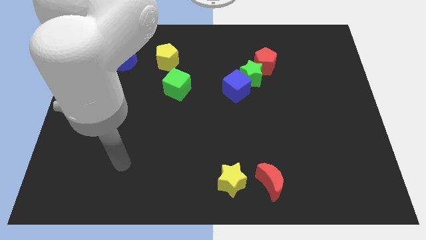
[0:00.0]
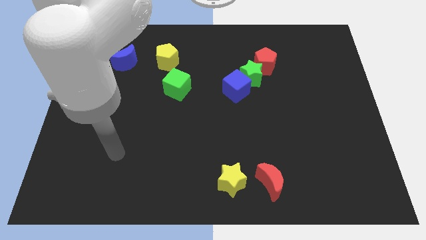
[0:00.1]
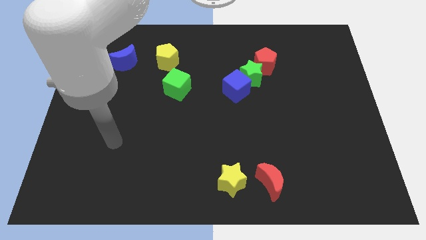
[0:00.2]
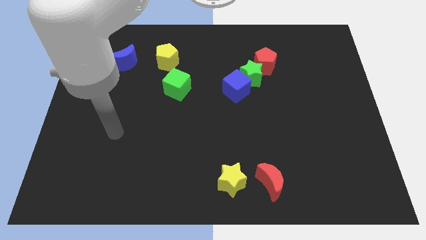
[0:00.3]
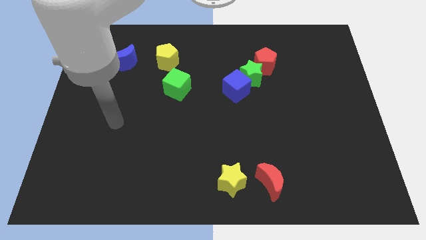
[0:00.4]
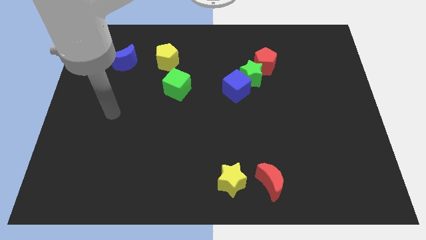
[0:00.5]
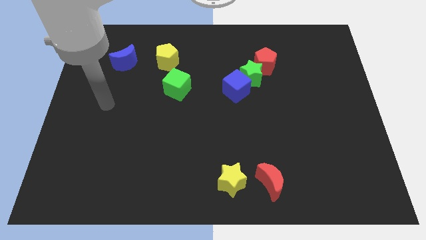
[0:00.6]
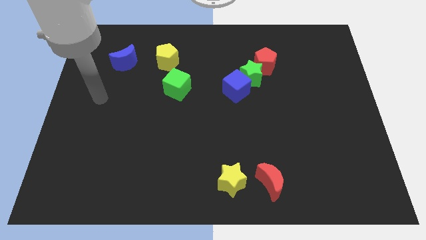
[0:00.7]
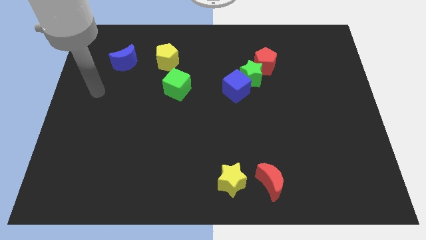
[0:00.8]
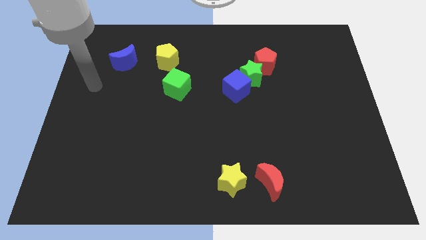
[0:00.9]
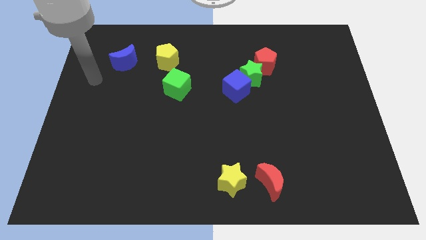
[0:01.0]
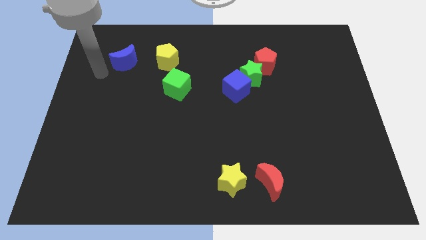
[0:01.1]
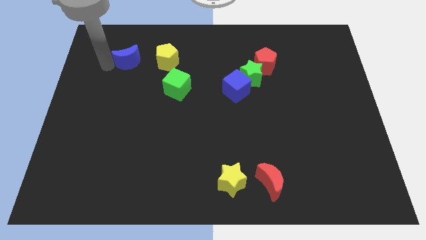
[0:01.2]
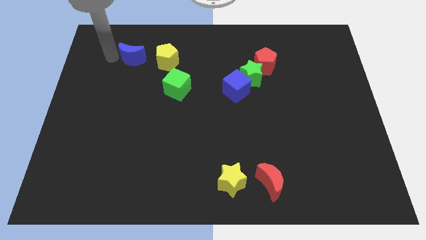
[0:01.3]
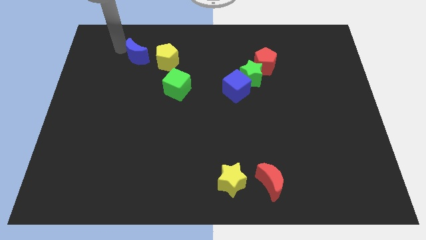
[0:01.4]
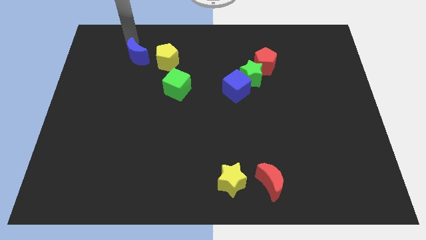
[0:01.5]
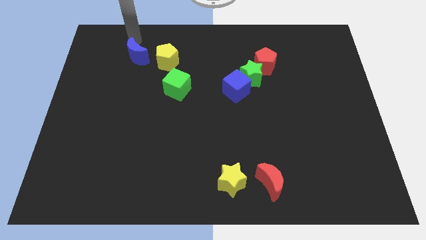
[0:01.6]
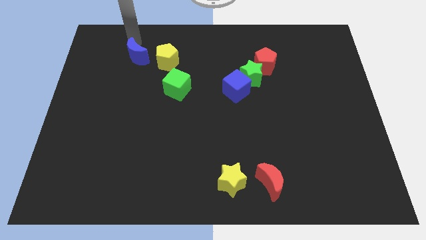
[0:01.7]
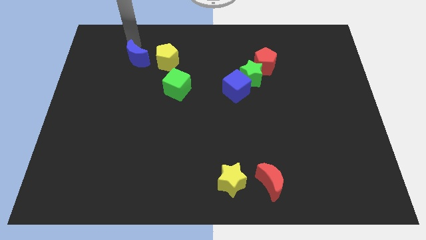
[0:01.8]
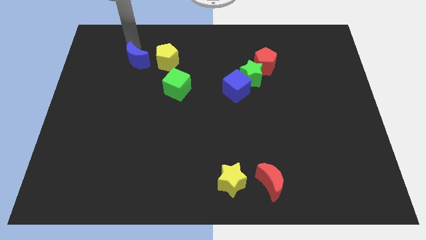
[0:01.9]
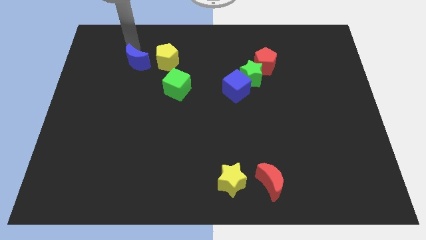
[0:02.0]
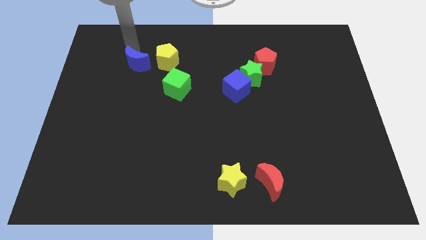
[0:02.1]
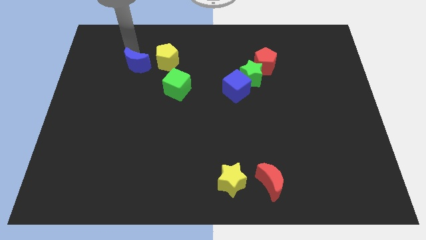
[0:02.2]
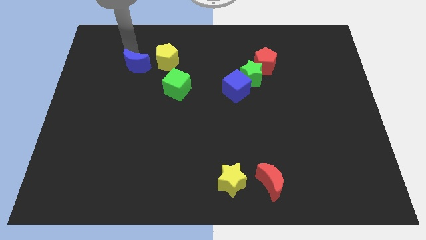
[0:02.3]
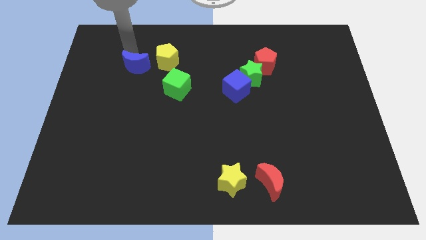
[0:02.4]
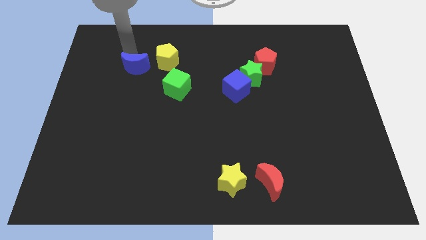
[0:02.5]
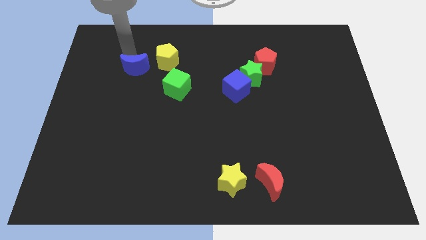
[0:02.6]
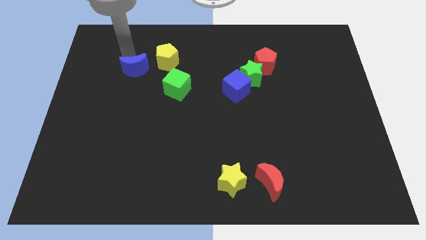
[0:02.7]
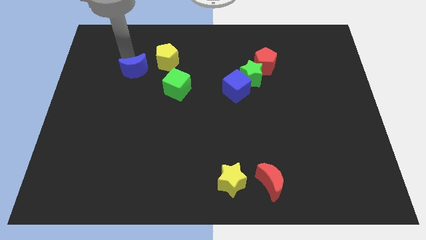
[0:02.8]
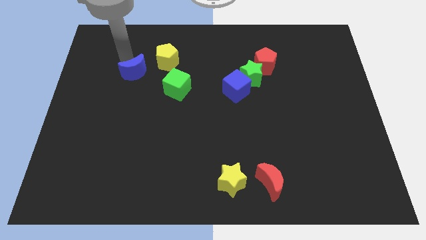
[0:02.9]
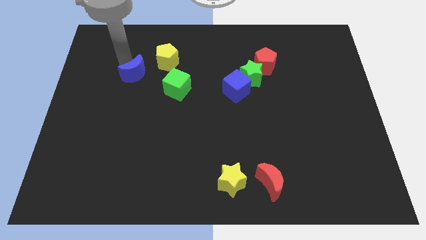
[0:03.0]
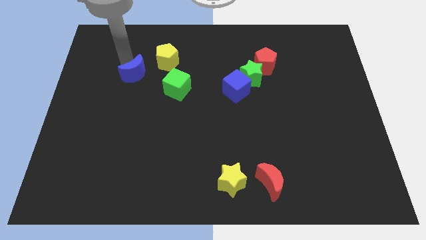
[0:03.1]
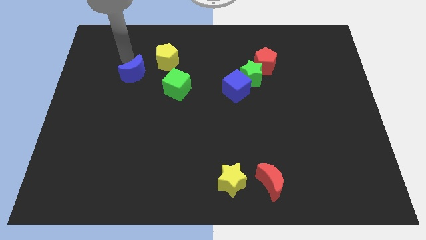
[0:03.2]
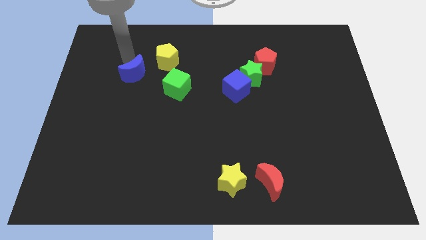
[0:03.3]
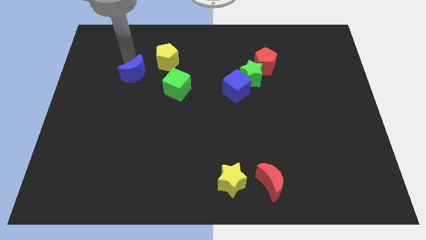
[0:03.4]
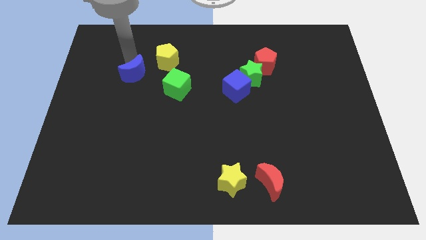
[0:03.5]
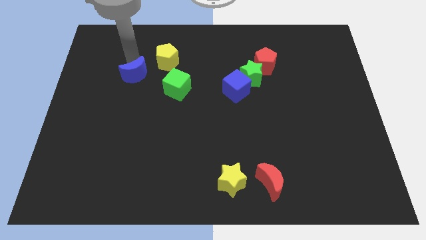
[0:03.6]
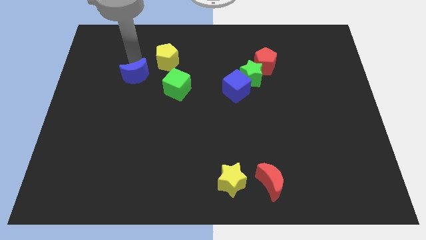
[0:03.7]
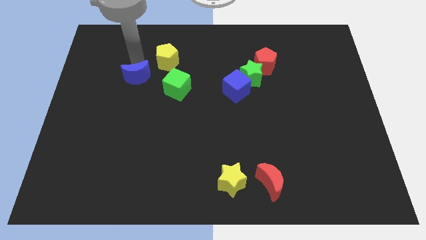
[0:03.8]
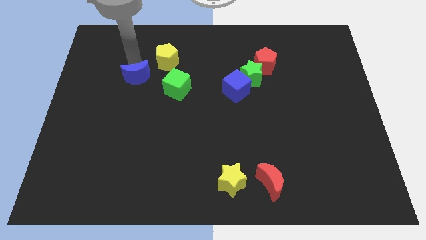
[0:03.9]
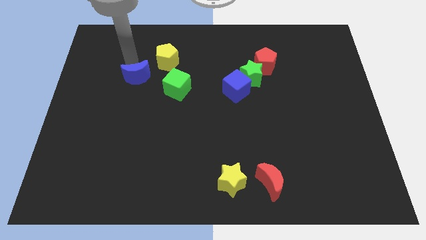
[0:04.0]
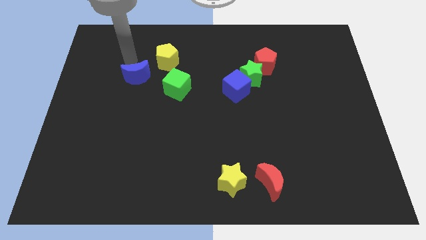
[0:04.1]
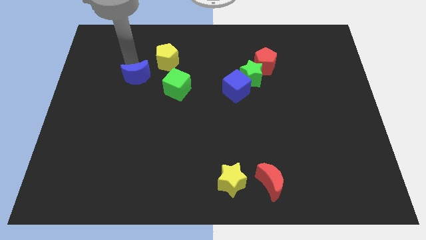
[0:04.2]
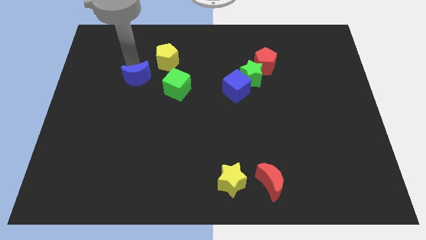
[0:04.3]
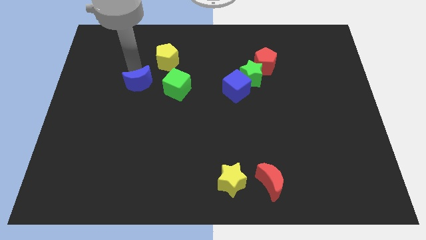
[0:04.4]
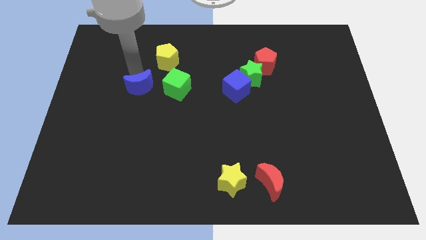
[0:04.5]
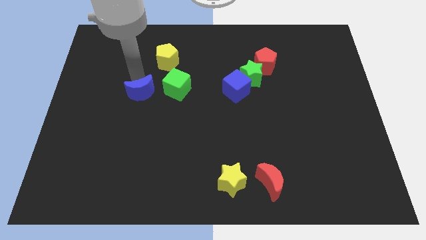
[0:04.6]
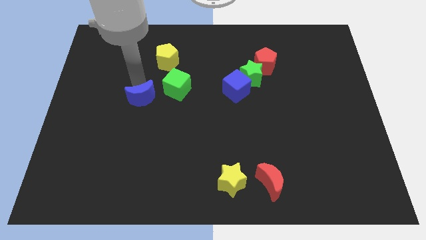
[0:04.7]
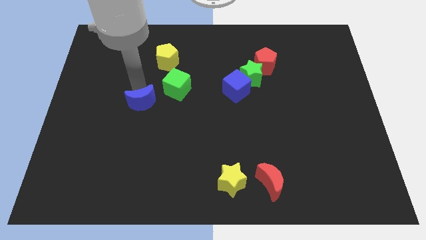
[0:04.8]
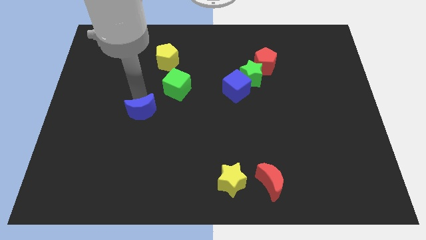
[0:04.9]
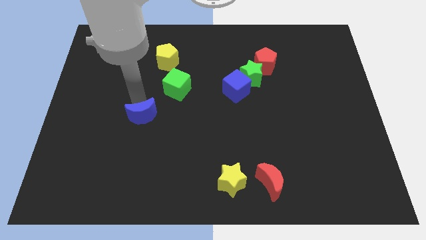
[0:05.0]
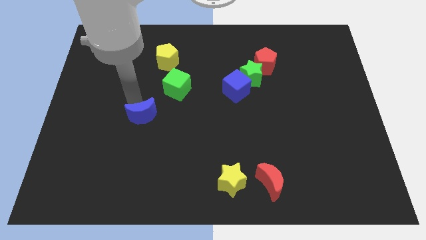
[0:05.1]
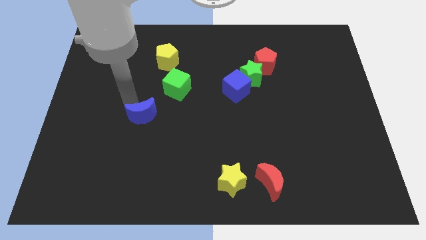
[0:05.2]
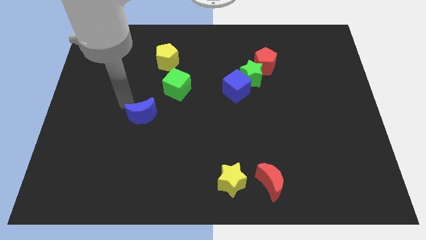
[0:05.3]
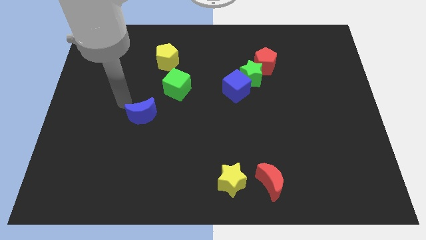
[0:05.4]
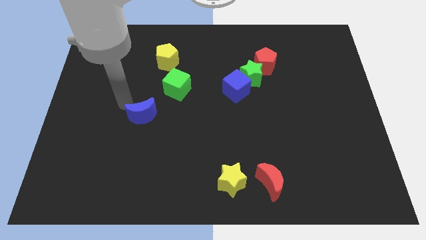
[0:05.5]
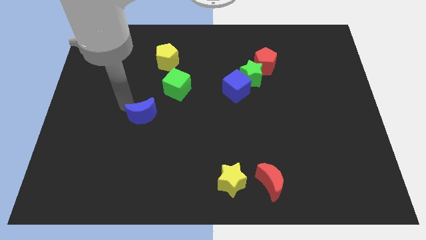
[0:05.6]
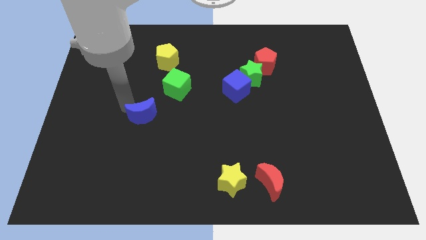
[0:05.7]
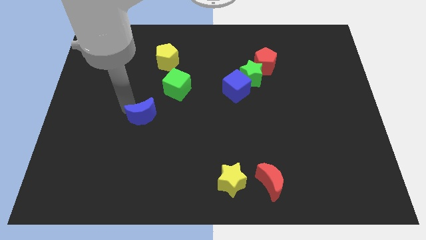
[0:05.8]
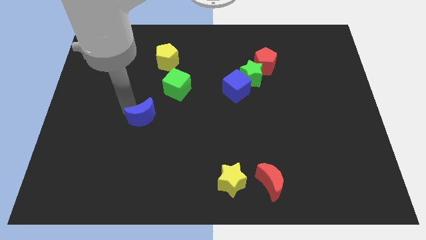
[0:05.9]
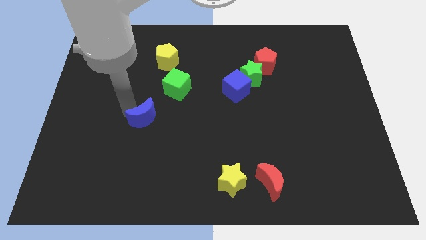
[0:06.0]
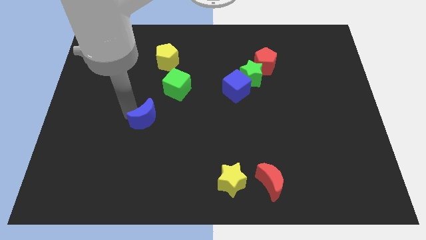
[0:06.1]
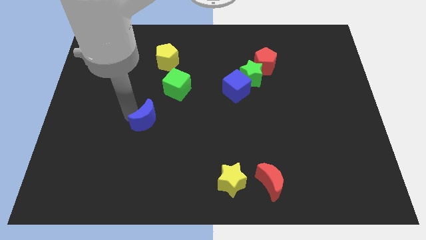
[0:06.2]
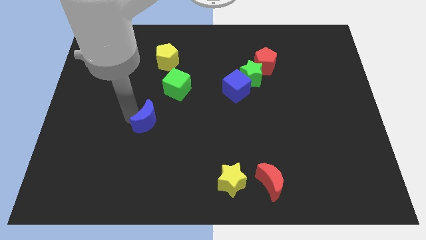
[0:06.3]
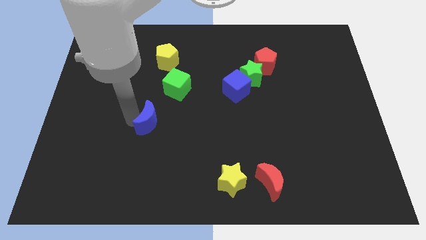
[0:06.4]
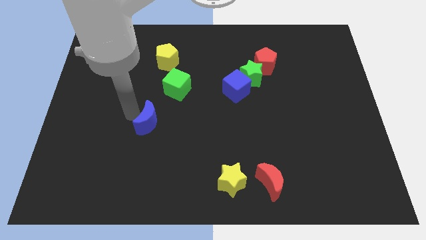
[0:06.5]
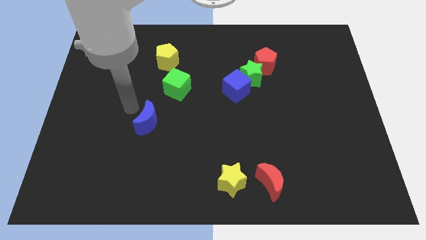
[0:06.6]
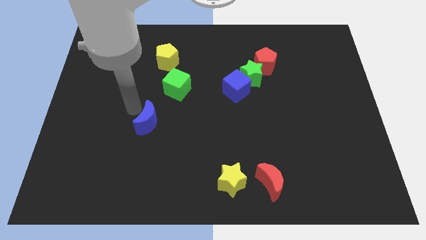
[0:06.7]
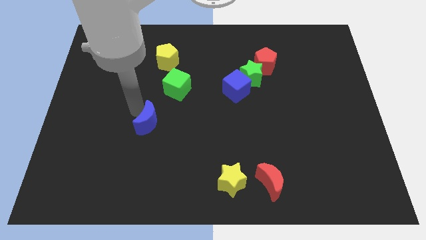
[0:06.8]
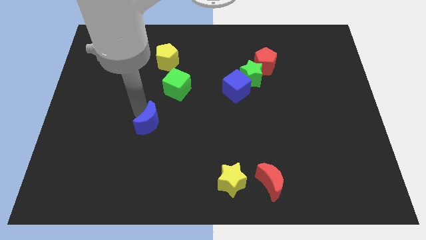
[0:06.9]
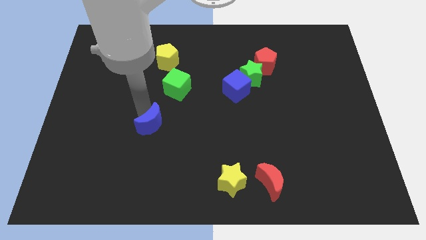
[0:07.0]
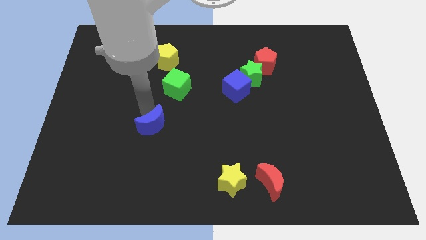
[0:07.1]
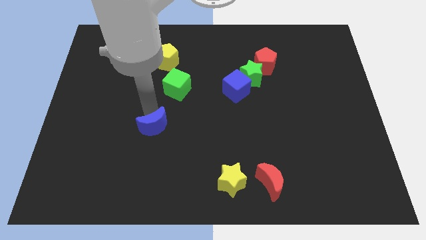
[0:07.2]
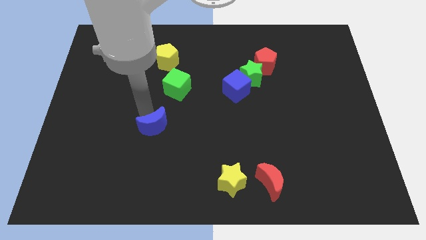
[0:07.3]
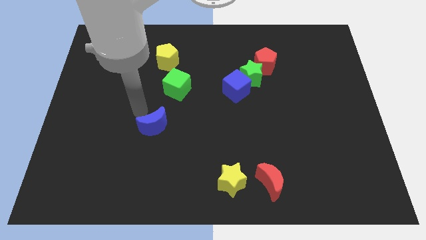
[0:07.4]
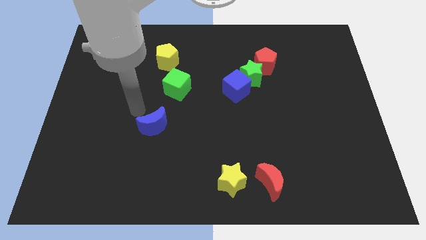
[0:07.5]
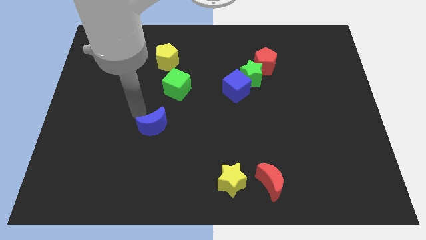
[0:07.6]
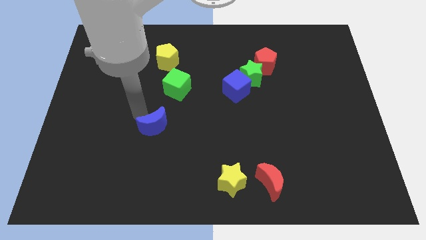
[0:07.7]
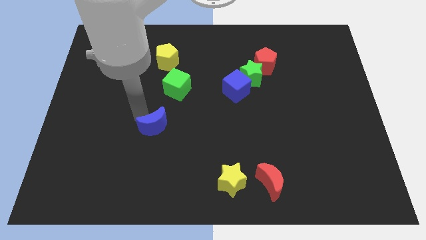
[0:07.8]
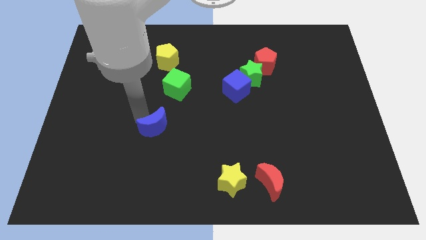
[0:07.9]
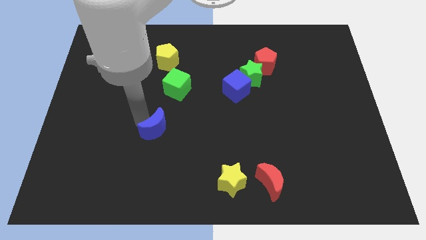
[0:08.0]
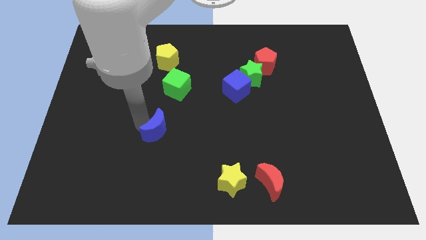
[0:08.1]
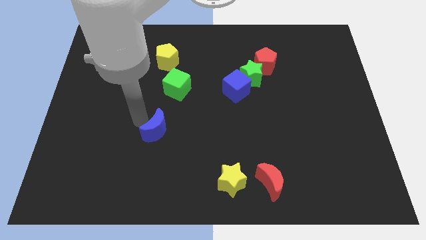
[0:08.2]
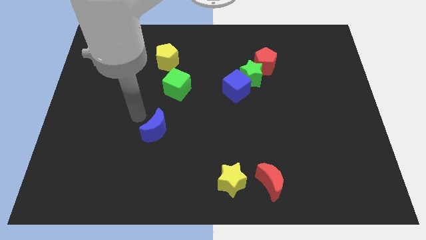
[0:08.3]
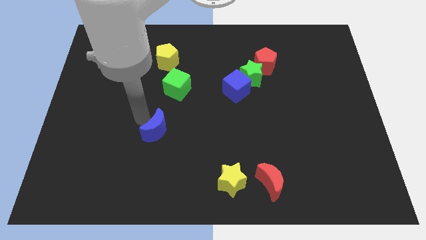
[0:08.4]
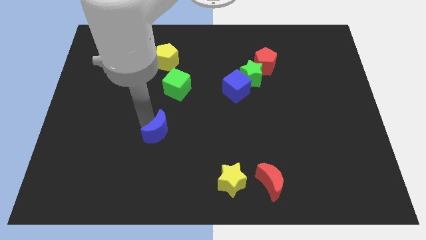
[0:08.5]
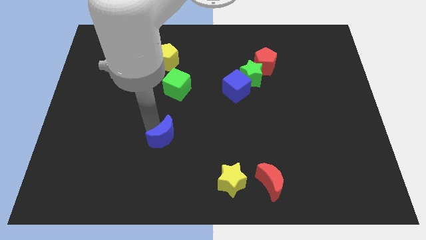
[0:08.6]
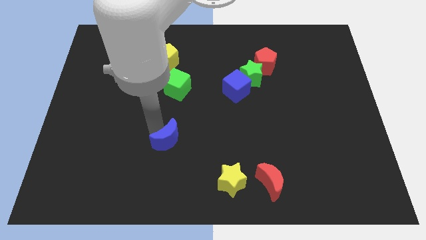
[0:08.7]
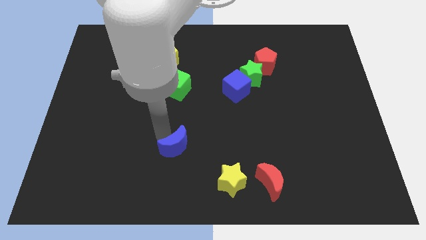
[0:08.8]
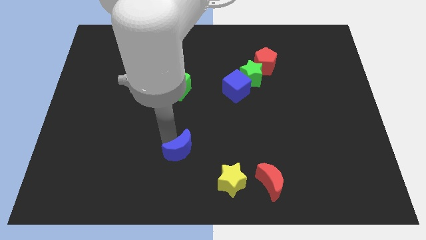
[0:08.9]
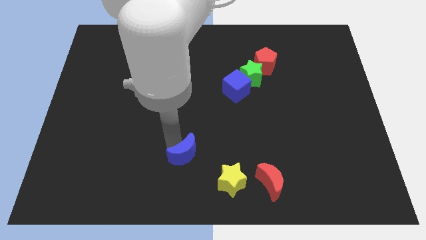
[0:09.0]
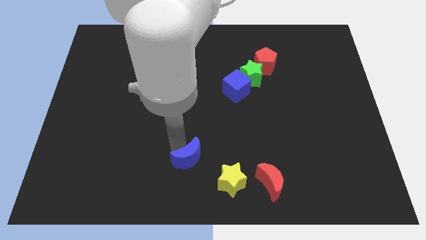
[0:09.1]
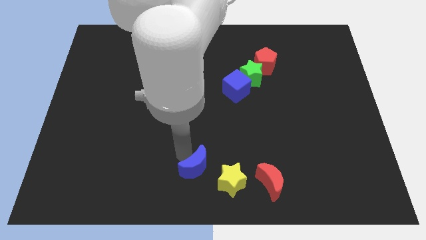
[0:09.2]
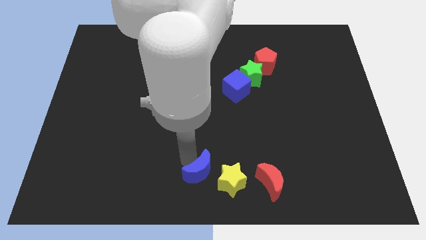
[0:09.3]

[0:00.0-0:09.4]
push the blue moon to the left of the red moon
